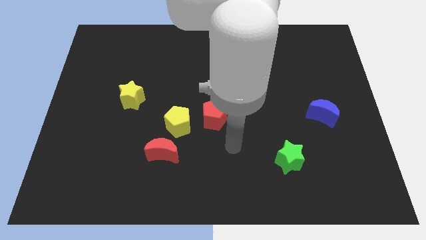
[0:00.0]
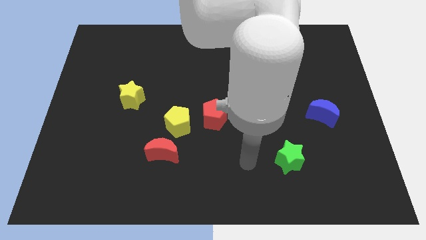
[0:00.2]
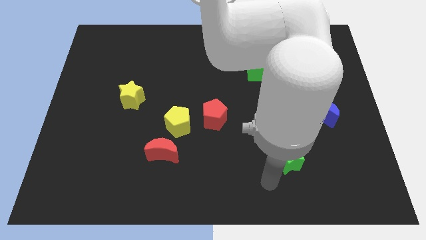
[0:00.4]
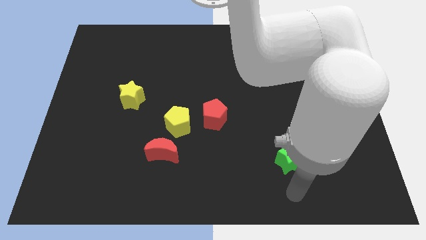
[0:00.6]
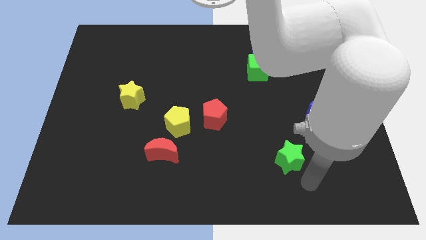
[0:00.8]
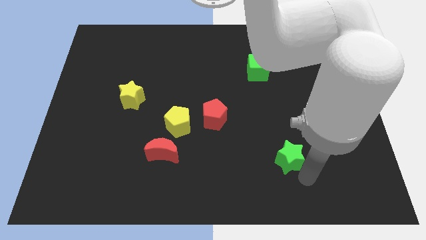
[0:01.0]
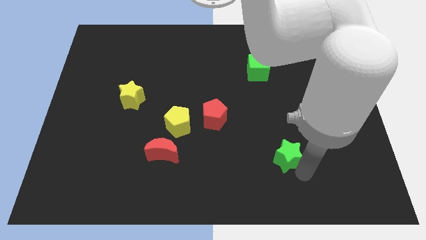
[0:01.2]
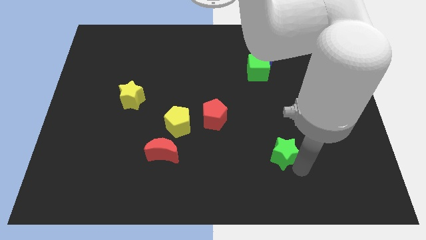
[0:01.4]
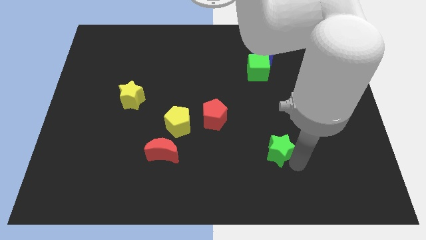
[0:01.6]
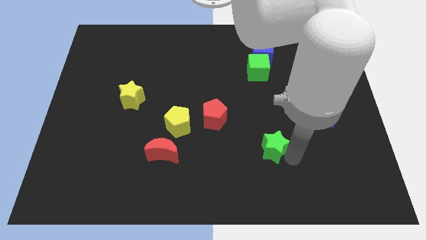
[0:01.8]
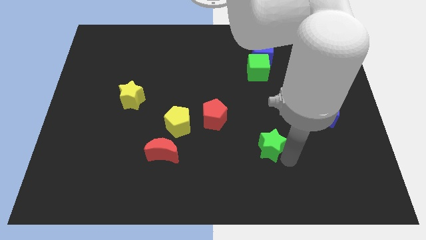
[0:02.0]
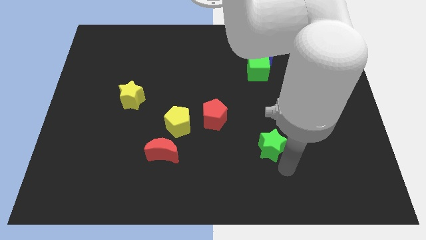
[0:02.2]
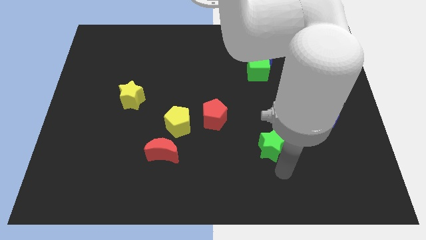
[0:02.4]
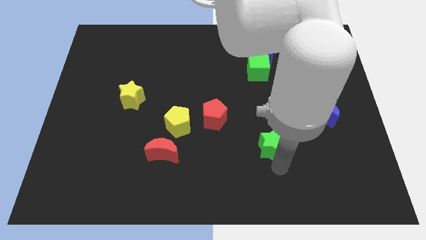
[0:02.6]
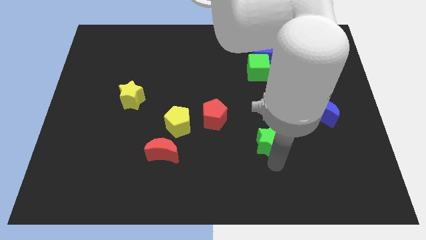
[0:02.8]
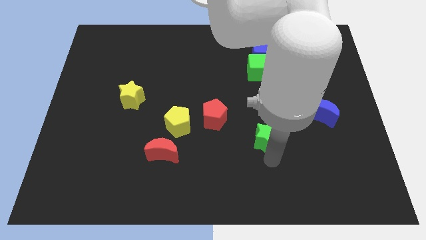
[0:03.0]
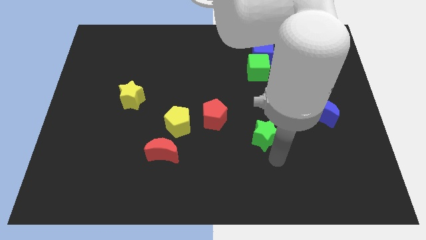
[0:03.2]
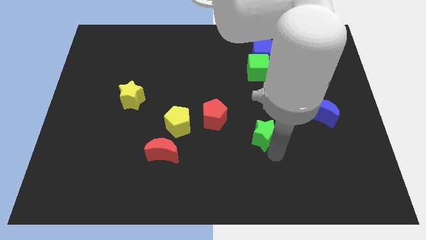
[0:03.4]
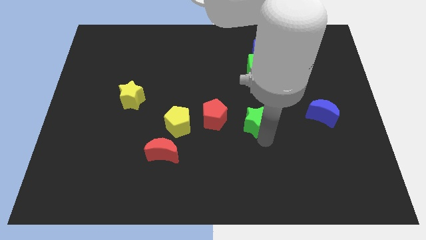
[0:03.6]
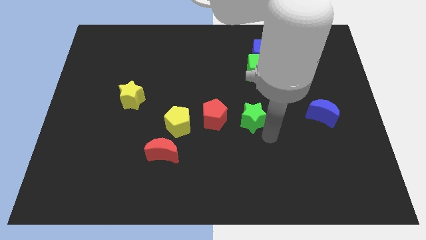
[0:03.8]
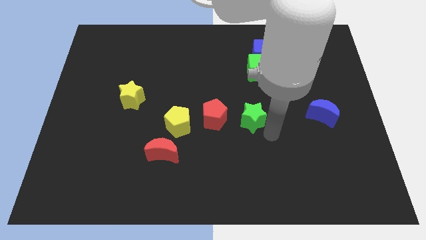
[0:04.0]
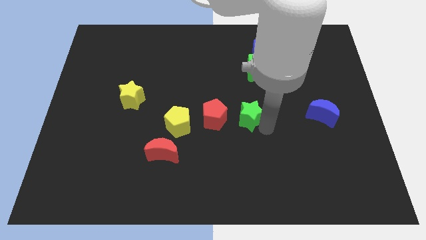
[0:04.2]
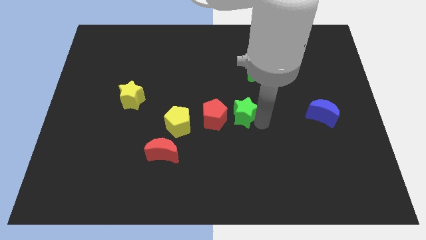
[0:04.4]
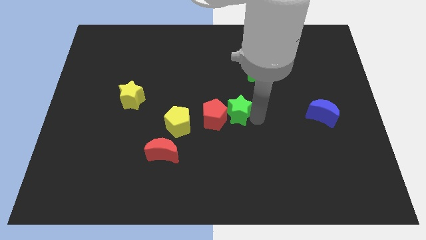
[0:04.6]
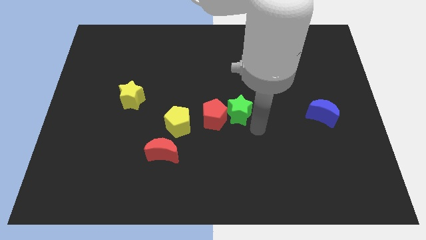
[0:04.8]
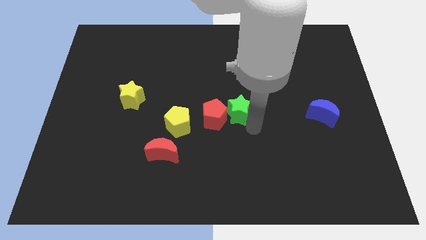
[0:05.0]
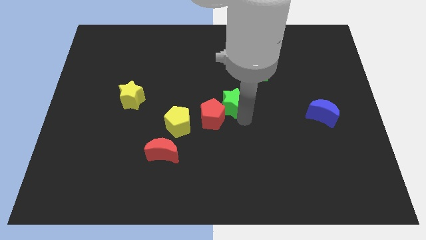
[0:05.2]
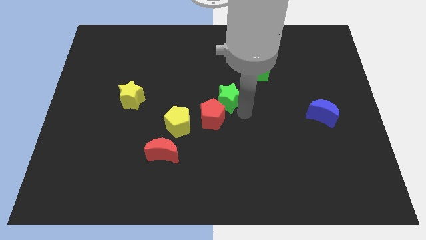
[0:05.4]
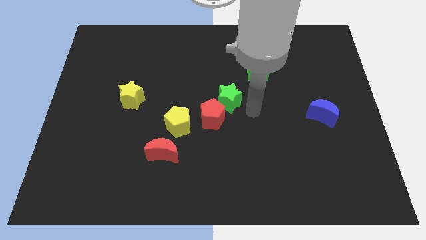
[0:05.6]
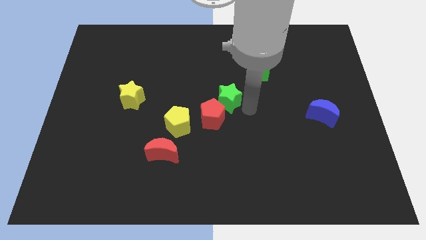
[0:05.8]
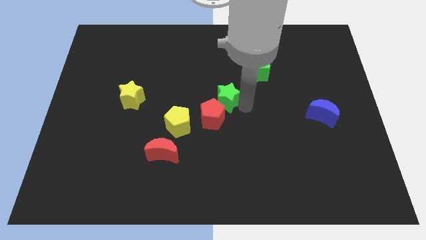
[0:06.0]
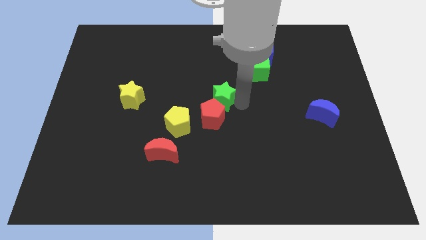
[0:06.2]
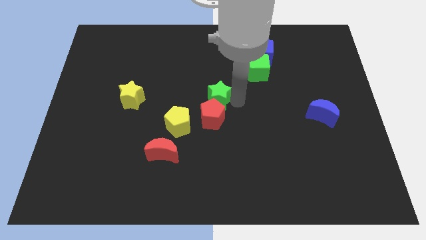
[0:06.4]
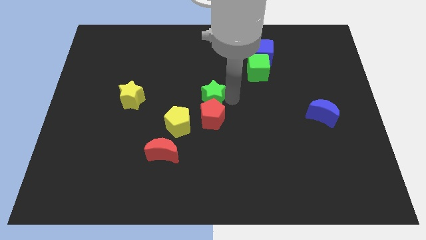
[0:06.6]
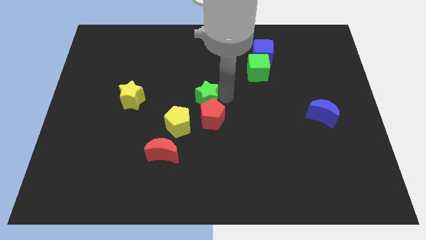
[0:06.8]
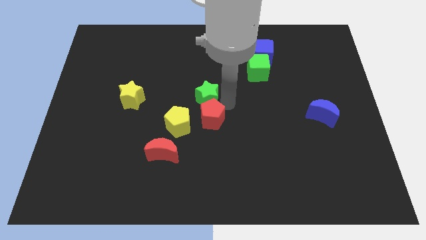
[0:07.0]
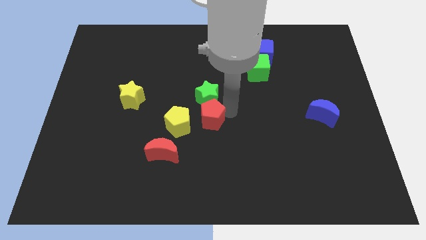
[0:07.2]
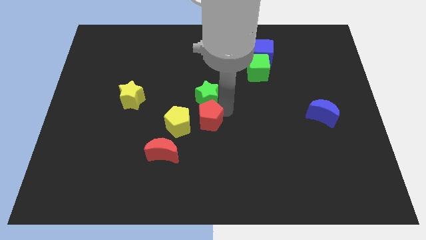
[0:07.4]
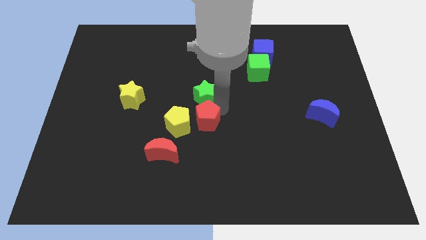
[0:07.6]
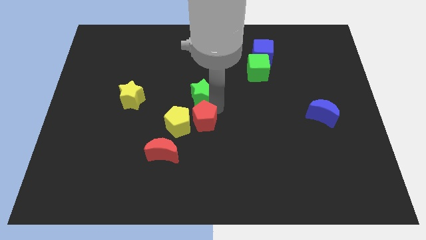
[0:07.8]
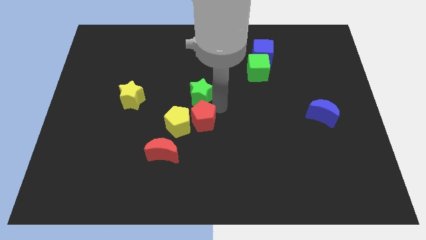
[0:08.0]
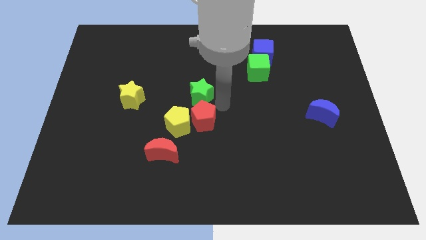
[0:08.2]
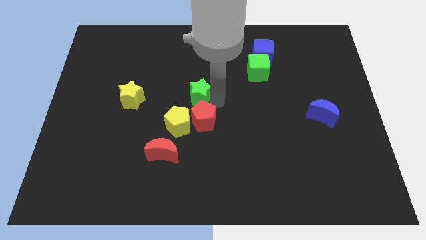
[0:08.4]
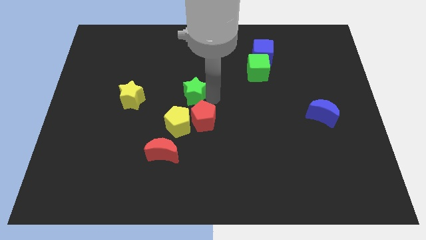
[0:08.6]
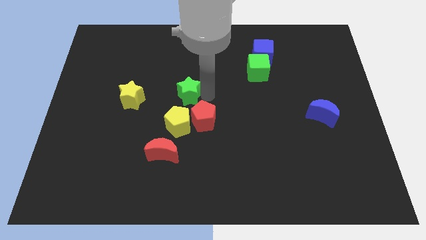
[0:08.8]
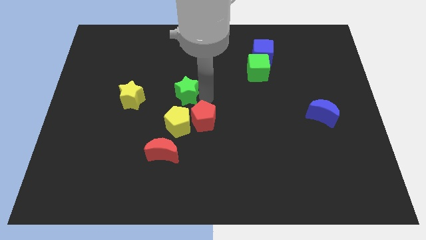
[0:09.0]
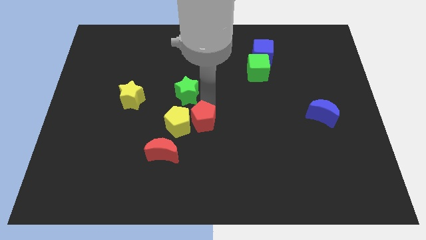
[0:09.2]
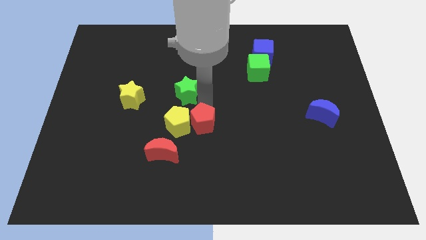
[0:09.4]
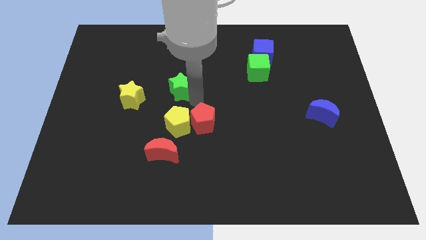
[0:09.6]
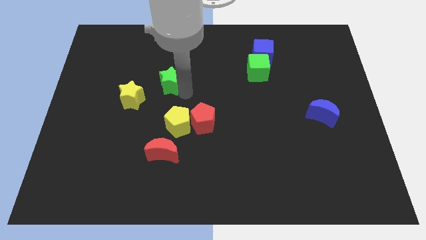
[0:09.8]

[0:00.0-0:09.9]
push the green star to the top right of the yellow star

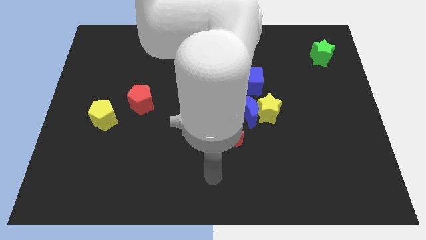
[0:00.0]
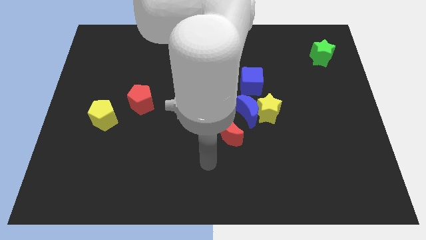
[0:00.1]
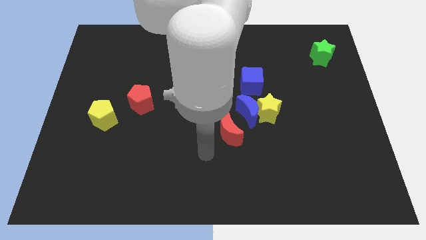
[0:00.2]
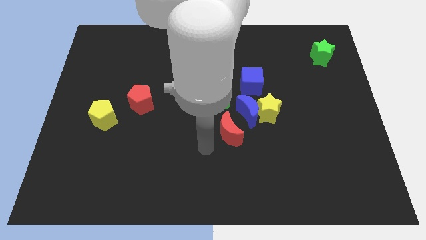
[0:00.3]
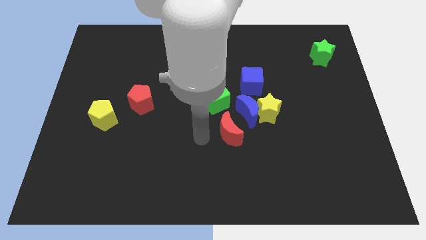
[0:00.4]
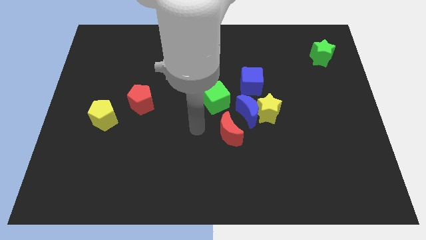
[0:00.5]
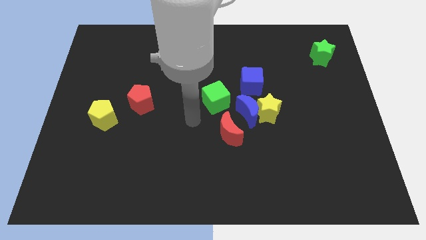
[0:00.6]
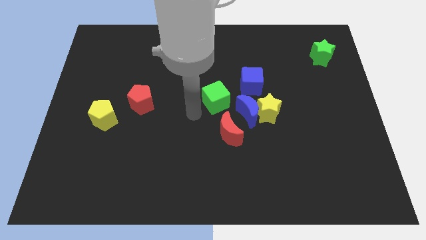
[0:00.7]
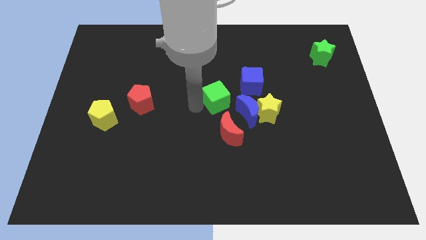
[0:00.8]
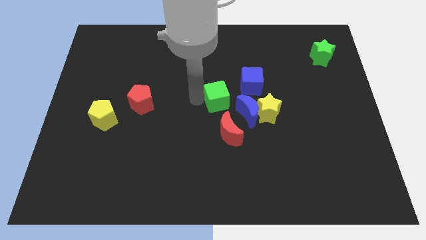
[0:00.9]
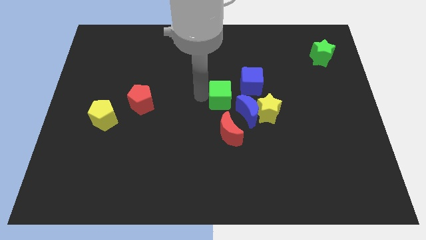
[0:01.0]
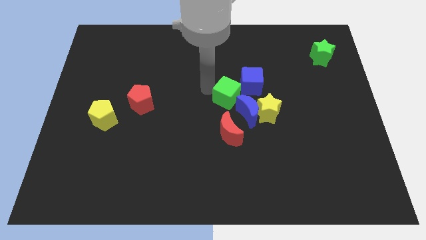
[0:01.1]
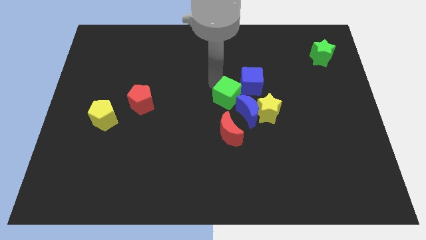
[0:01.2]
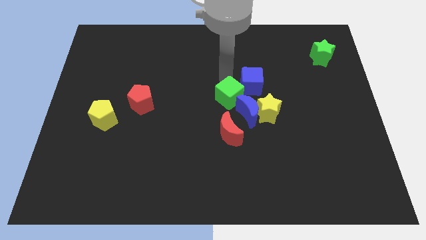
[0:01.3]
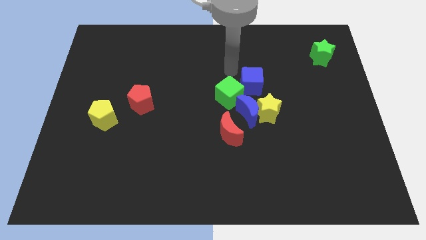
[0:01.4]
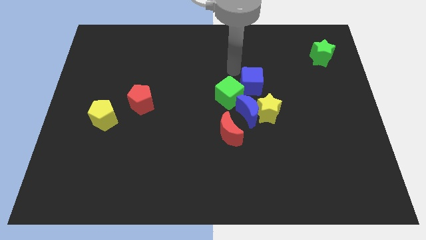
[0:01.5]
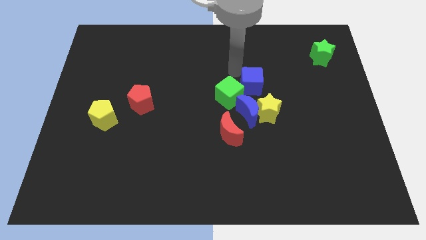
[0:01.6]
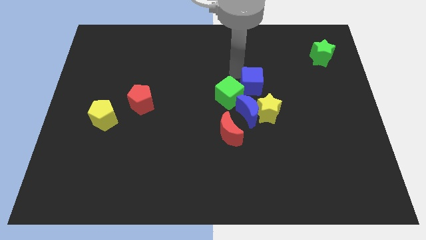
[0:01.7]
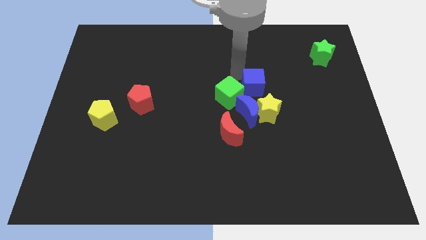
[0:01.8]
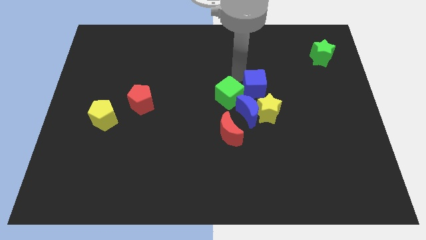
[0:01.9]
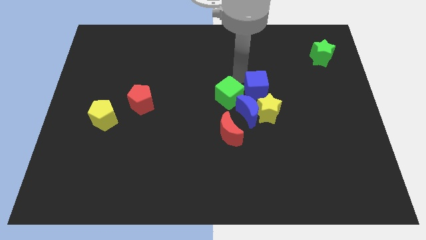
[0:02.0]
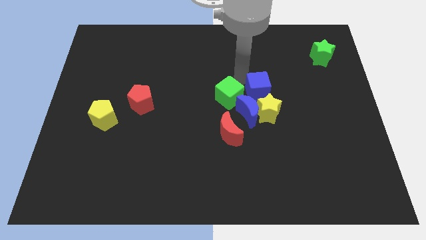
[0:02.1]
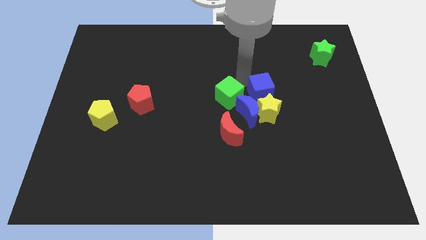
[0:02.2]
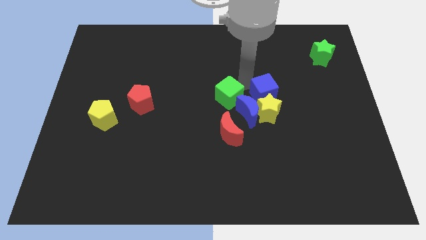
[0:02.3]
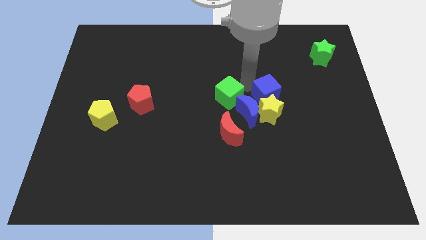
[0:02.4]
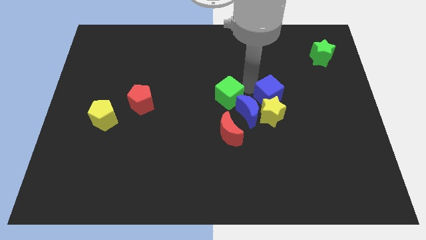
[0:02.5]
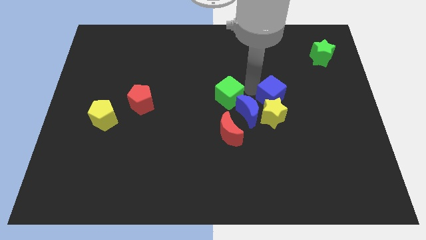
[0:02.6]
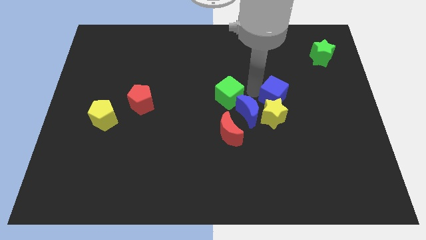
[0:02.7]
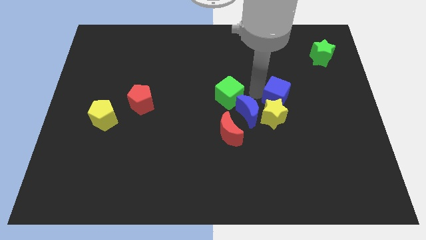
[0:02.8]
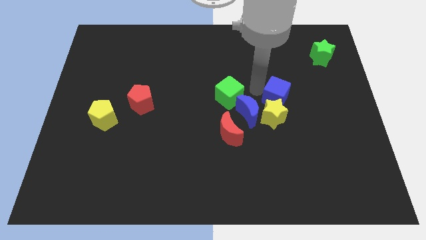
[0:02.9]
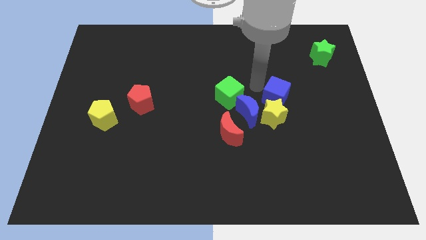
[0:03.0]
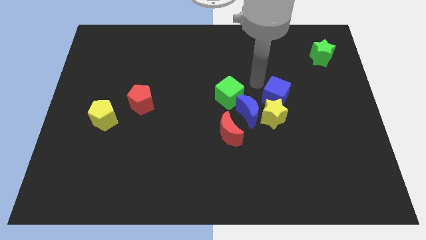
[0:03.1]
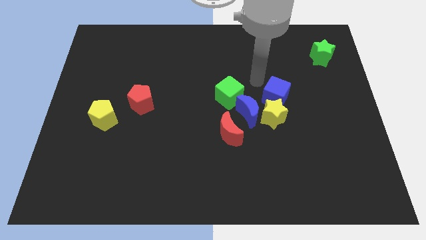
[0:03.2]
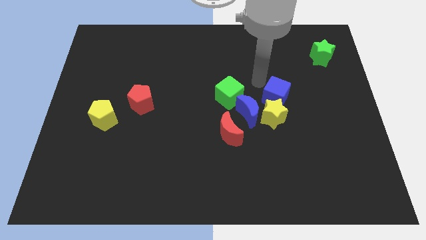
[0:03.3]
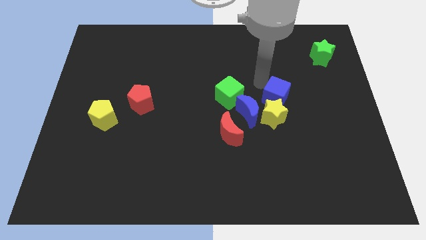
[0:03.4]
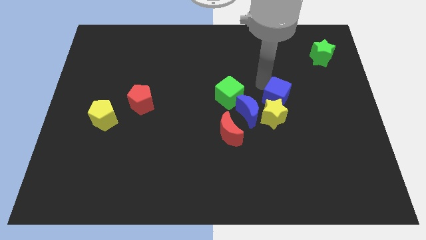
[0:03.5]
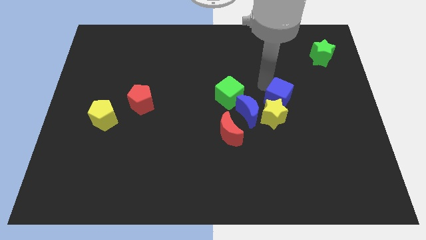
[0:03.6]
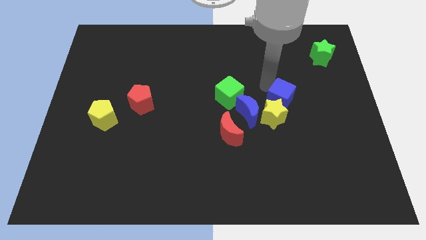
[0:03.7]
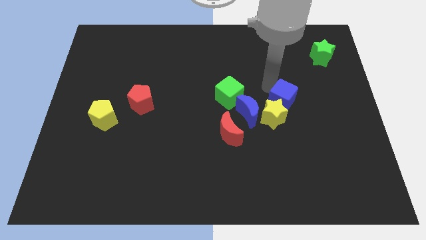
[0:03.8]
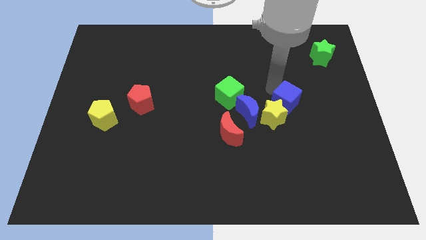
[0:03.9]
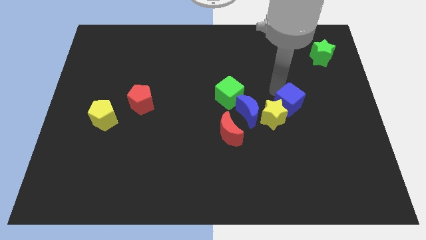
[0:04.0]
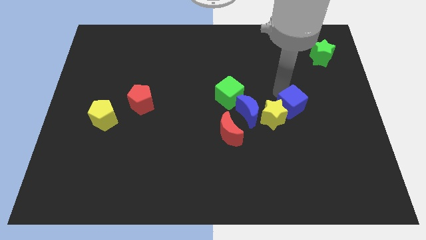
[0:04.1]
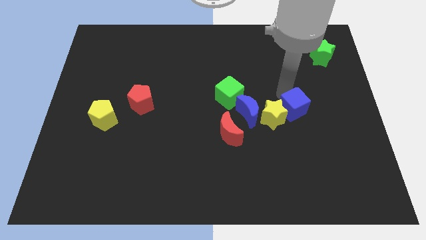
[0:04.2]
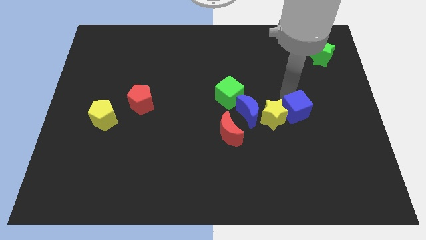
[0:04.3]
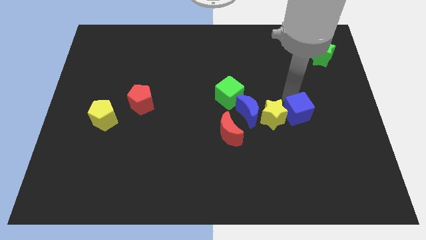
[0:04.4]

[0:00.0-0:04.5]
slide the blue cube to the bottom right of the yellow star
